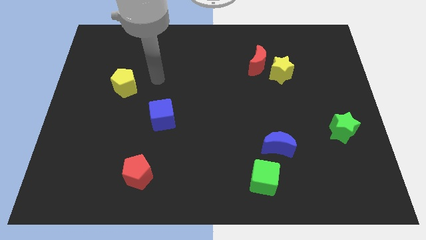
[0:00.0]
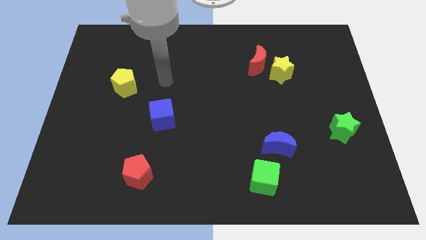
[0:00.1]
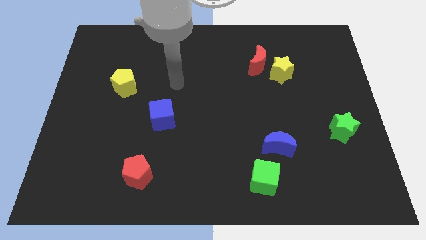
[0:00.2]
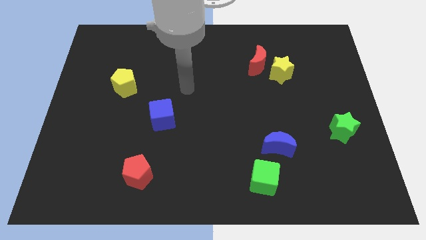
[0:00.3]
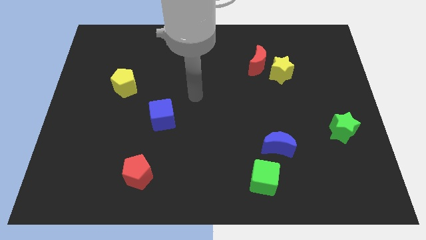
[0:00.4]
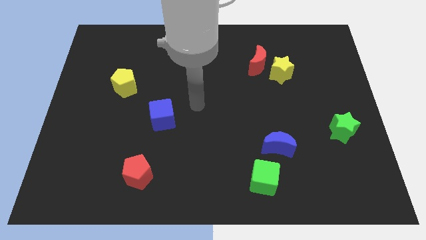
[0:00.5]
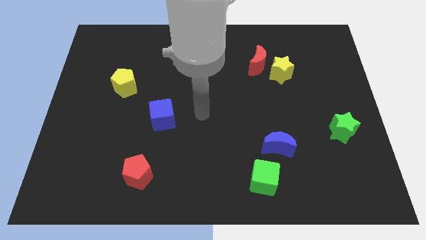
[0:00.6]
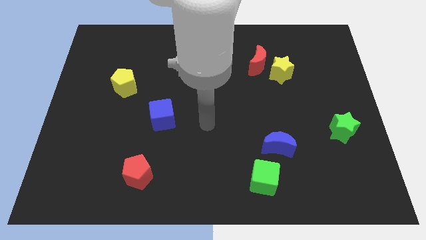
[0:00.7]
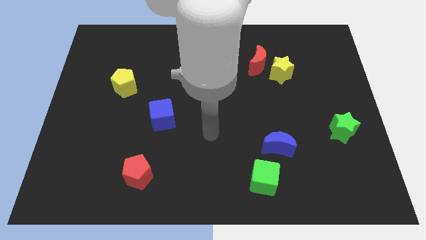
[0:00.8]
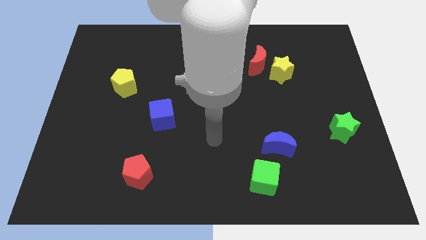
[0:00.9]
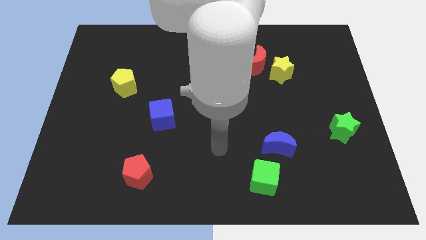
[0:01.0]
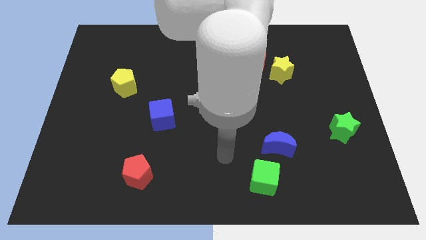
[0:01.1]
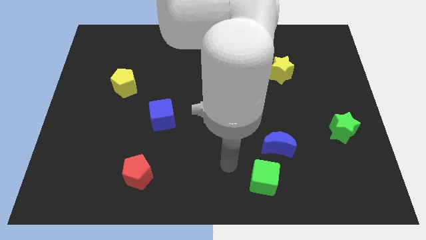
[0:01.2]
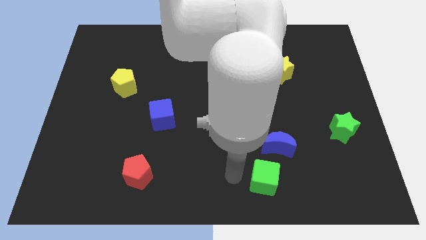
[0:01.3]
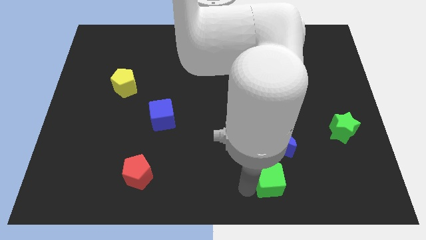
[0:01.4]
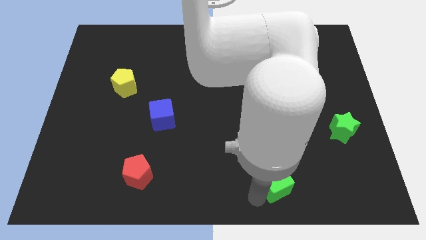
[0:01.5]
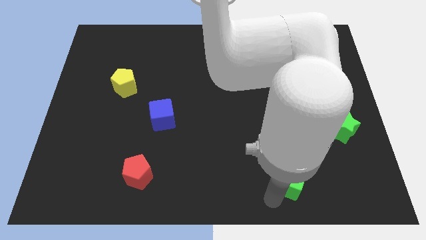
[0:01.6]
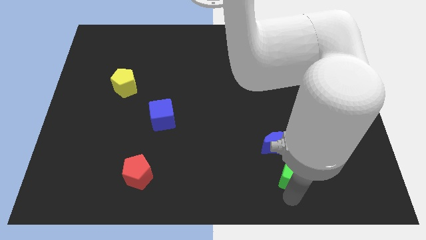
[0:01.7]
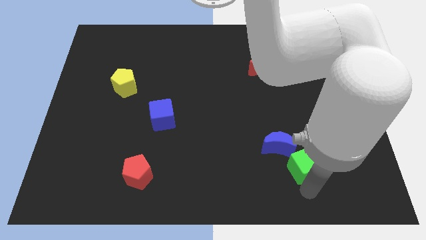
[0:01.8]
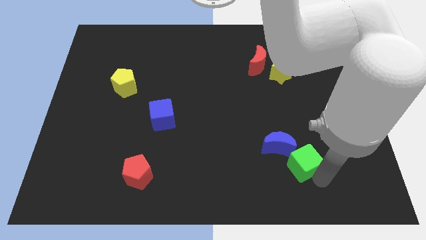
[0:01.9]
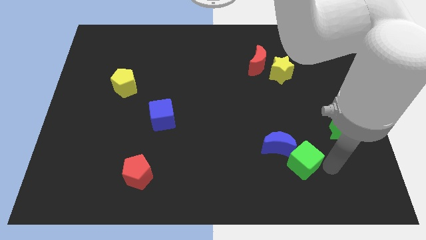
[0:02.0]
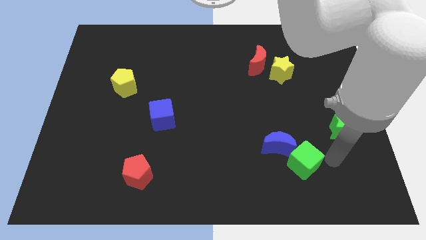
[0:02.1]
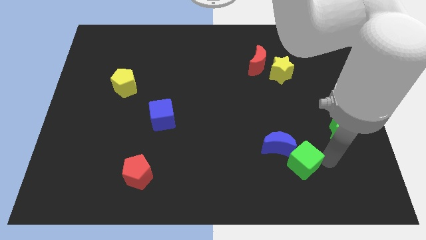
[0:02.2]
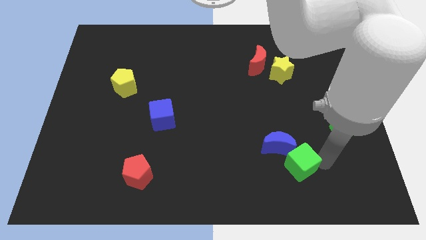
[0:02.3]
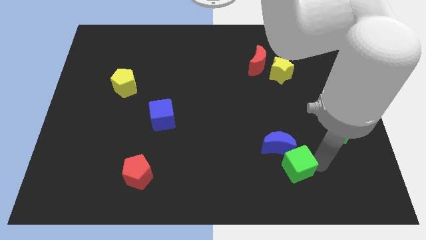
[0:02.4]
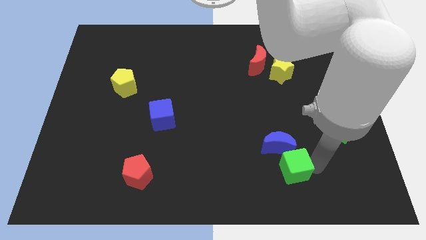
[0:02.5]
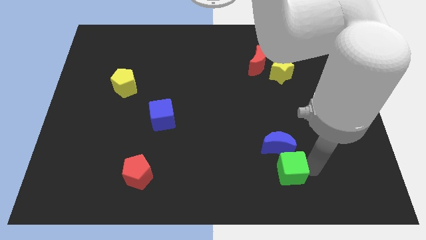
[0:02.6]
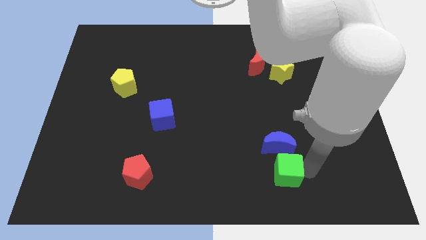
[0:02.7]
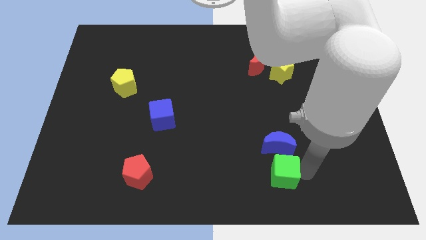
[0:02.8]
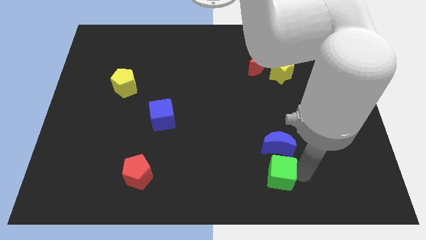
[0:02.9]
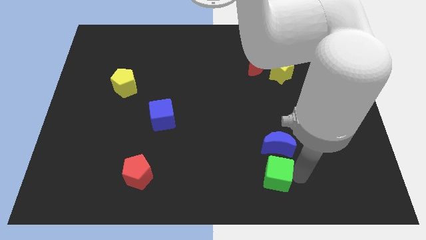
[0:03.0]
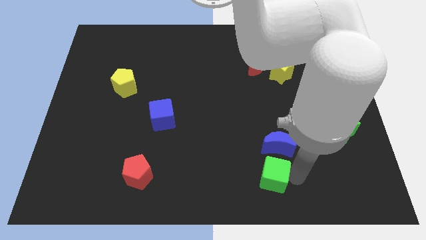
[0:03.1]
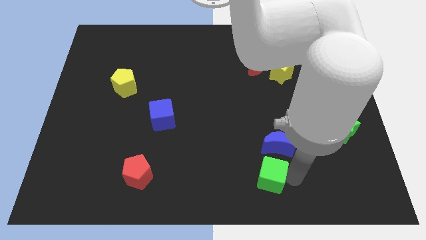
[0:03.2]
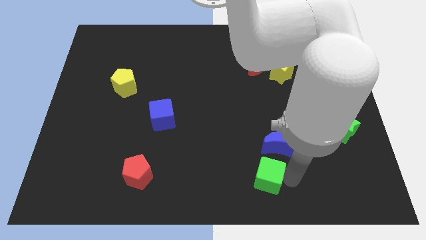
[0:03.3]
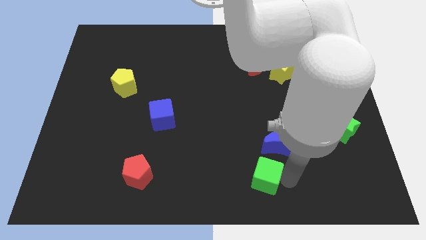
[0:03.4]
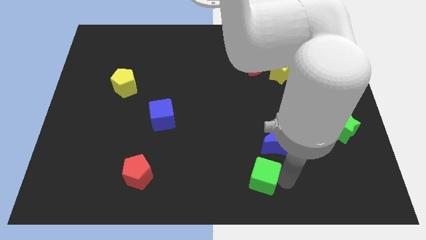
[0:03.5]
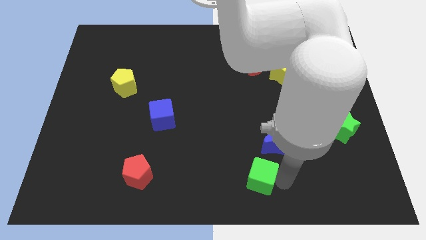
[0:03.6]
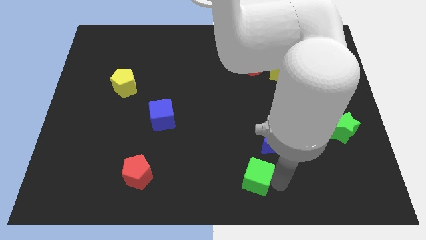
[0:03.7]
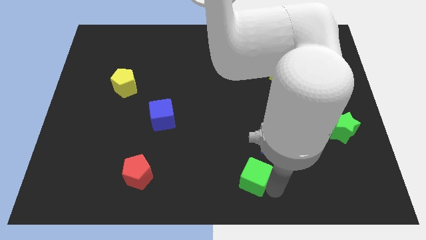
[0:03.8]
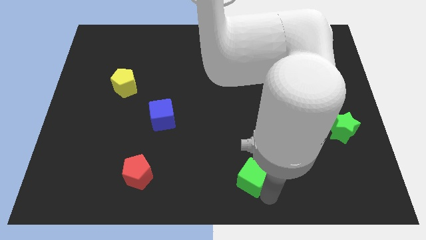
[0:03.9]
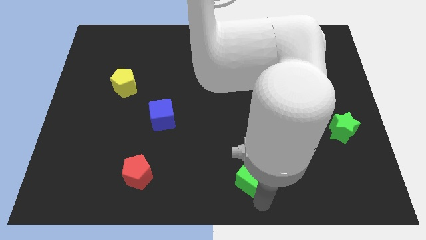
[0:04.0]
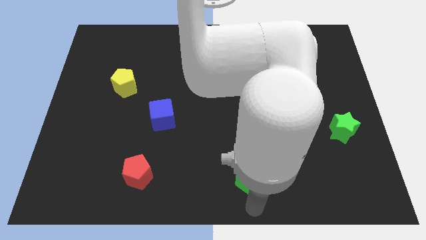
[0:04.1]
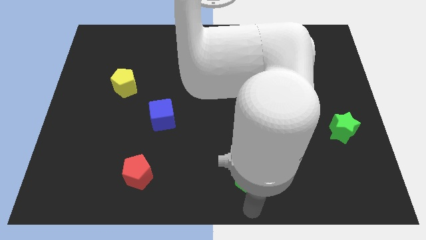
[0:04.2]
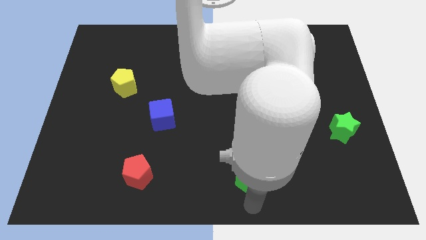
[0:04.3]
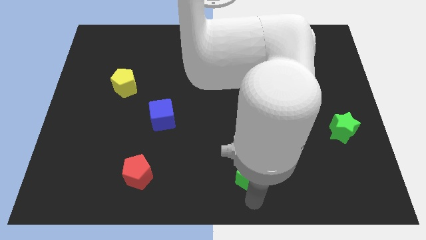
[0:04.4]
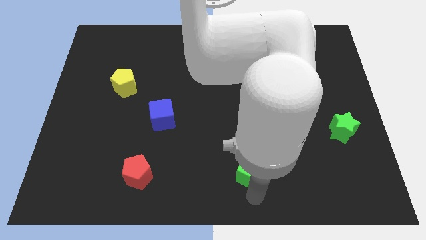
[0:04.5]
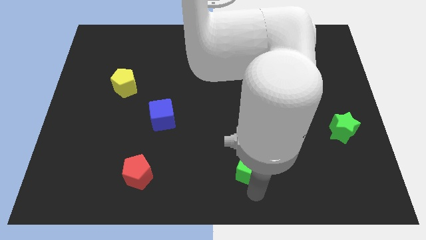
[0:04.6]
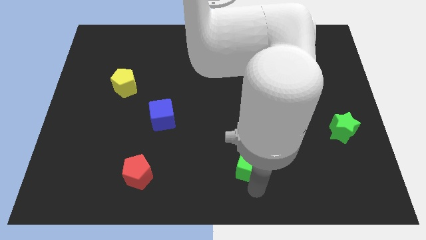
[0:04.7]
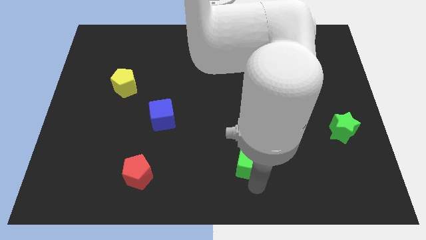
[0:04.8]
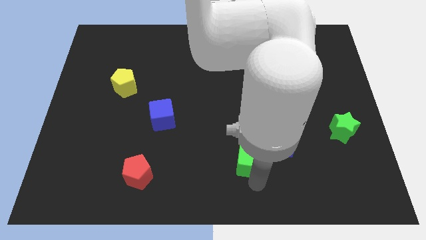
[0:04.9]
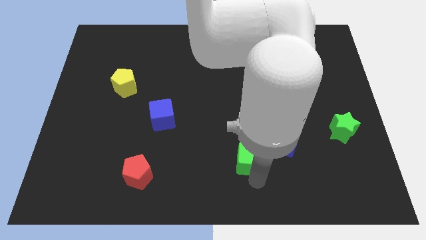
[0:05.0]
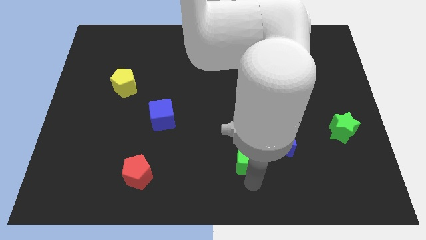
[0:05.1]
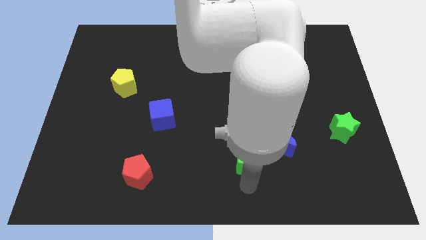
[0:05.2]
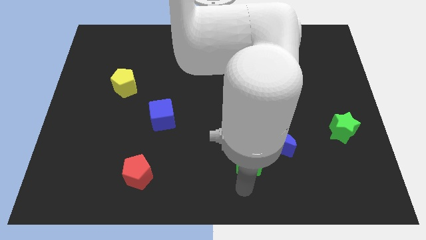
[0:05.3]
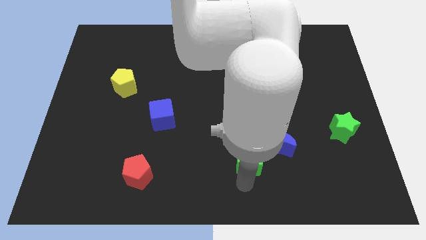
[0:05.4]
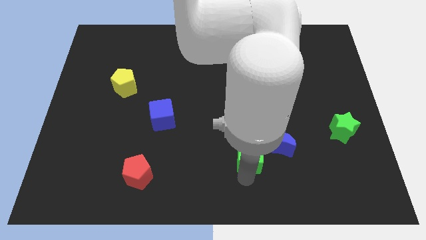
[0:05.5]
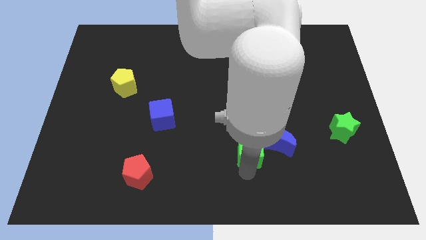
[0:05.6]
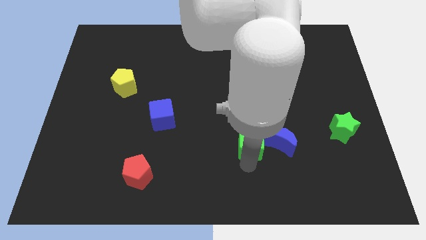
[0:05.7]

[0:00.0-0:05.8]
slide the green cube slightly up

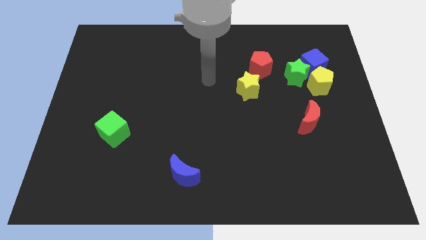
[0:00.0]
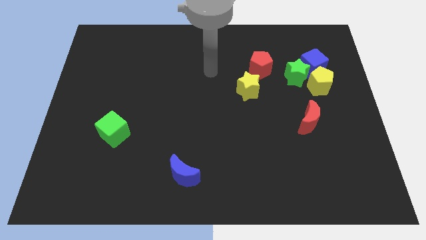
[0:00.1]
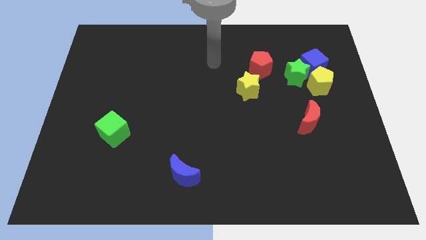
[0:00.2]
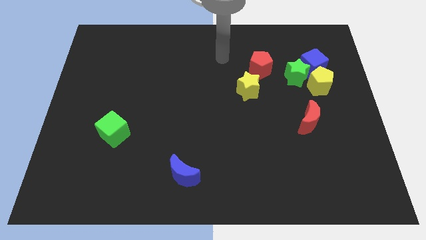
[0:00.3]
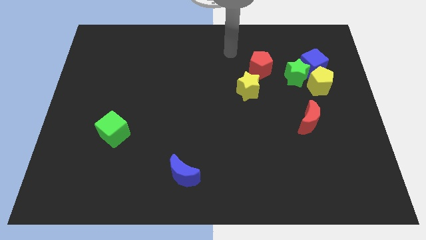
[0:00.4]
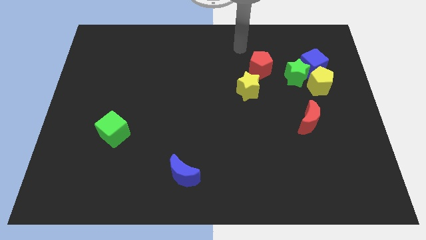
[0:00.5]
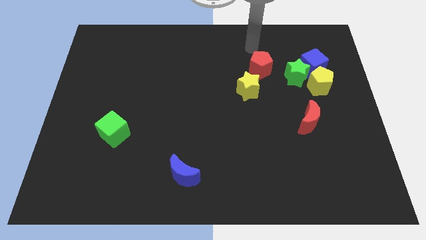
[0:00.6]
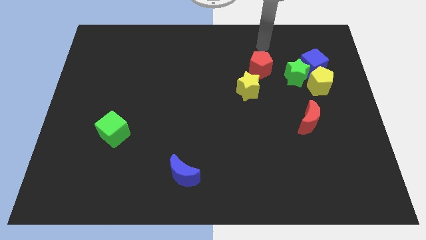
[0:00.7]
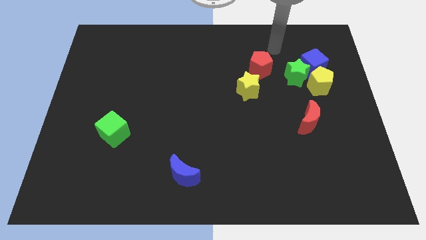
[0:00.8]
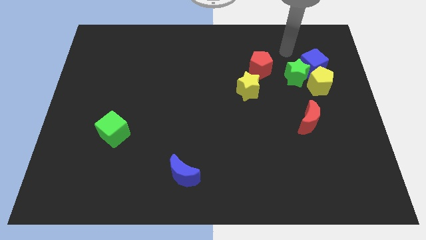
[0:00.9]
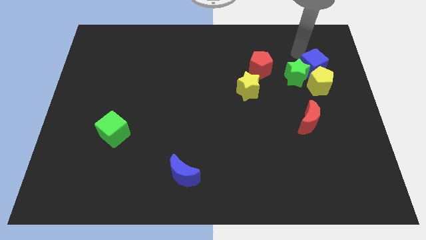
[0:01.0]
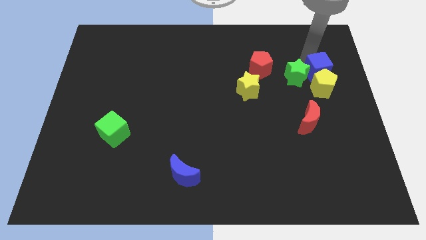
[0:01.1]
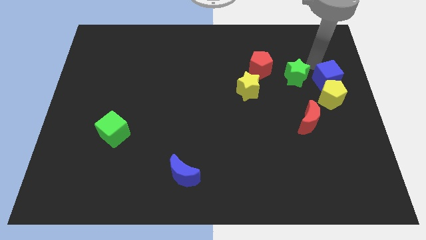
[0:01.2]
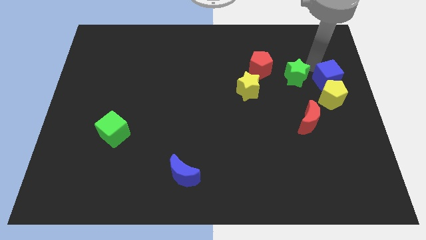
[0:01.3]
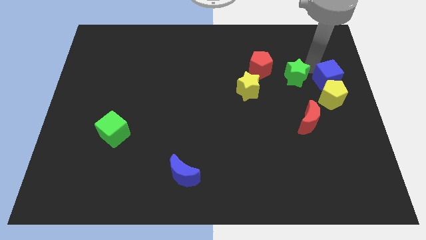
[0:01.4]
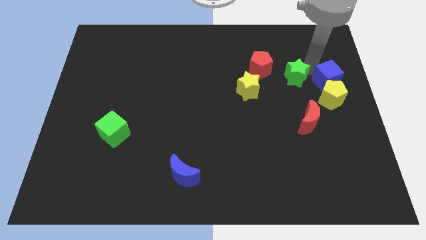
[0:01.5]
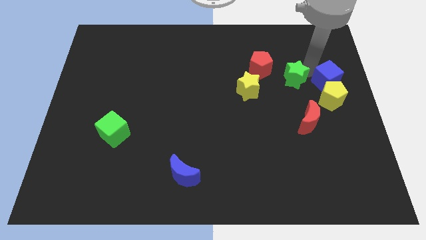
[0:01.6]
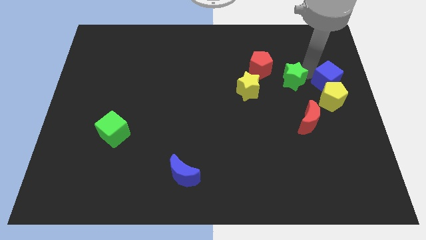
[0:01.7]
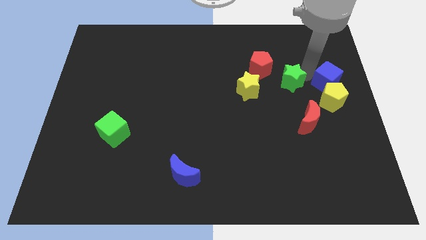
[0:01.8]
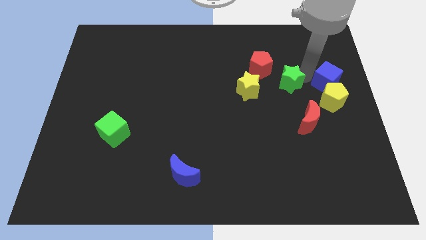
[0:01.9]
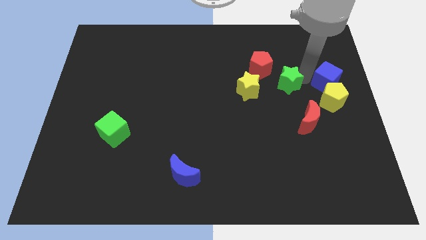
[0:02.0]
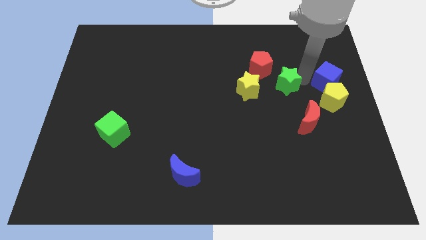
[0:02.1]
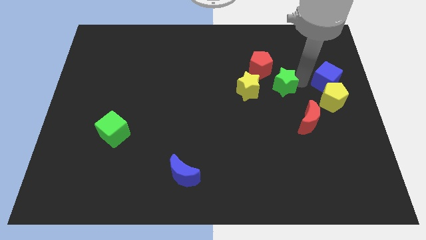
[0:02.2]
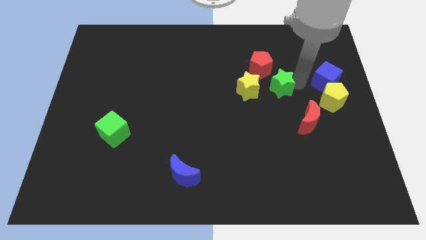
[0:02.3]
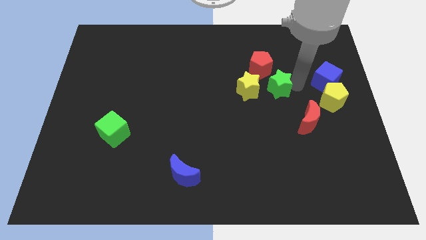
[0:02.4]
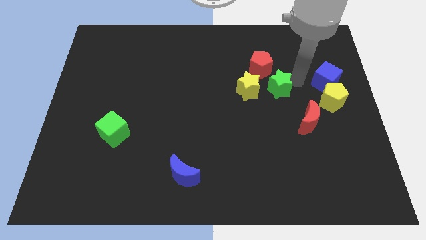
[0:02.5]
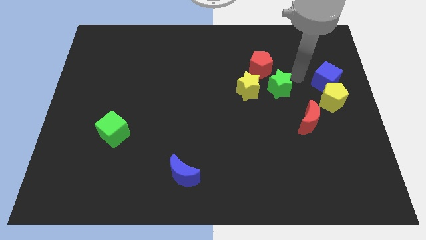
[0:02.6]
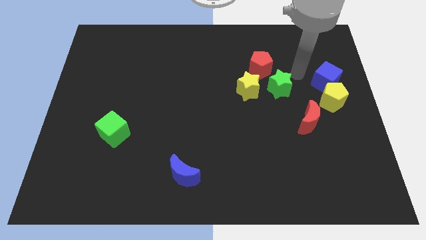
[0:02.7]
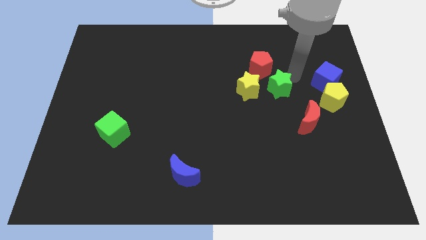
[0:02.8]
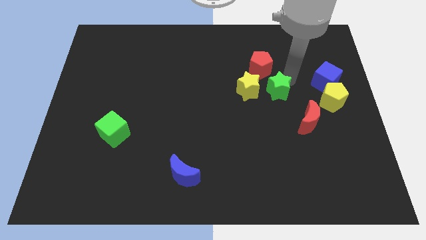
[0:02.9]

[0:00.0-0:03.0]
push the green star down and then to the left a little bit
